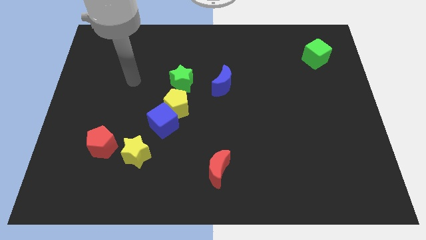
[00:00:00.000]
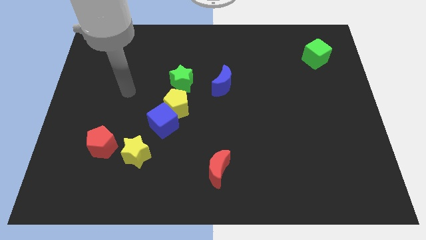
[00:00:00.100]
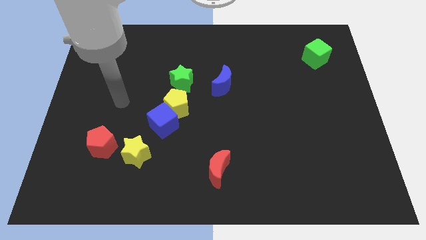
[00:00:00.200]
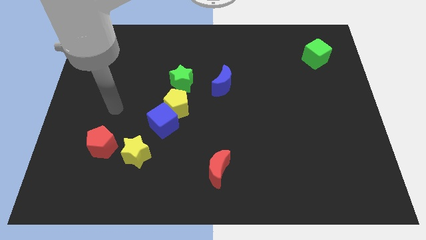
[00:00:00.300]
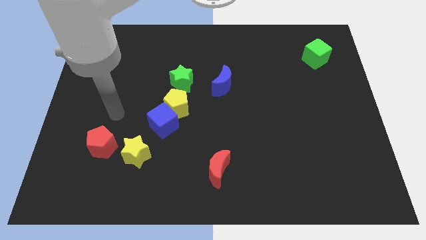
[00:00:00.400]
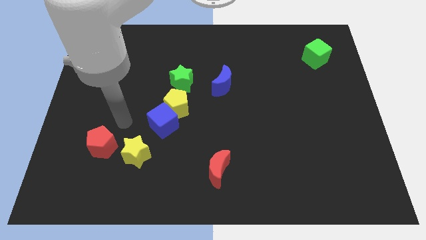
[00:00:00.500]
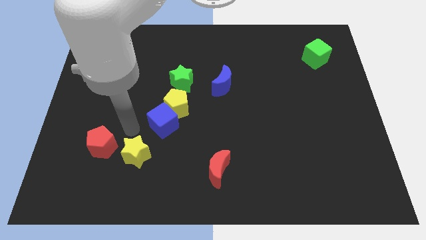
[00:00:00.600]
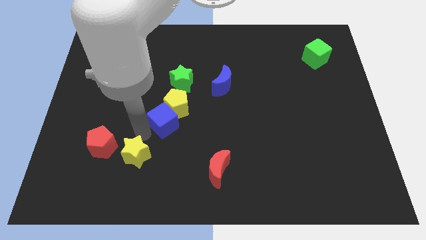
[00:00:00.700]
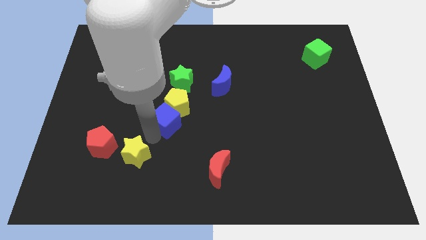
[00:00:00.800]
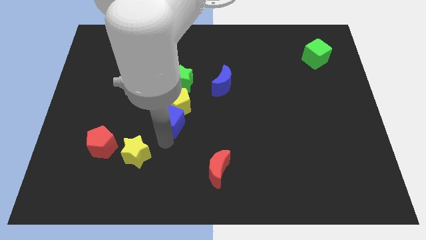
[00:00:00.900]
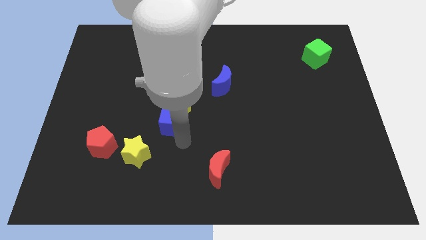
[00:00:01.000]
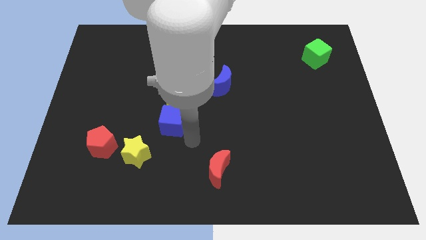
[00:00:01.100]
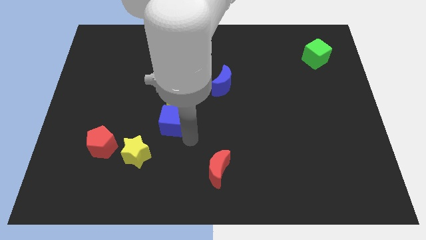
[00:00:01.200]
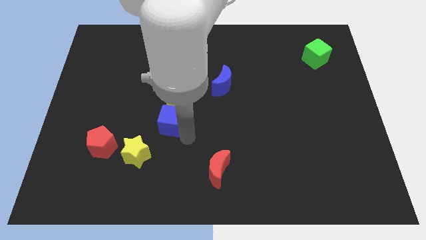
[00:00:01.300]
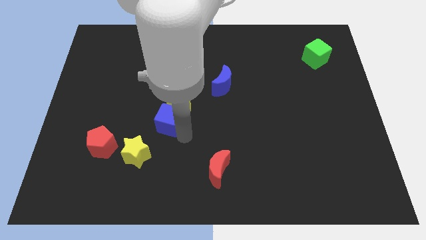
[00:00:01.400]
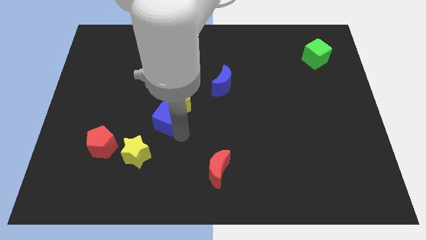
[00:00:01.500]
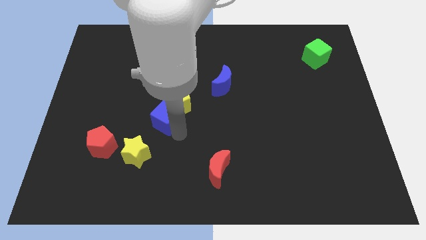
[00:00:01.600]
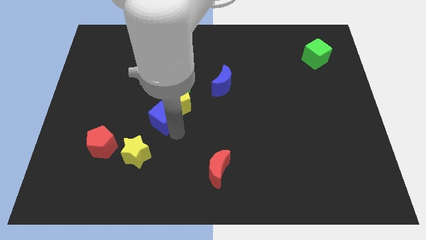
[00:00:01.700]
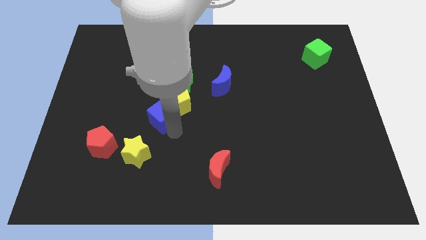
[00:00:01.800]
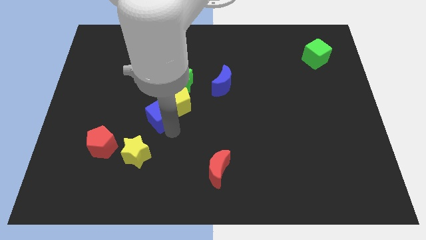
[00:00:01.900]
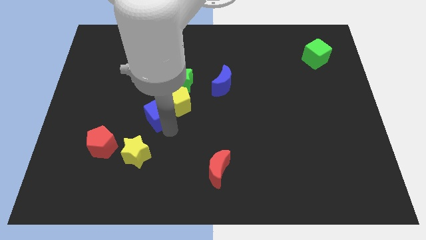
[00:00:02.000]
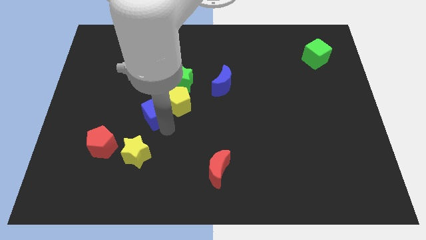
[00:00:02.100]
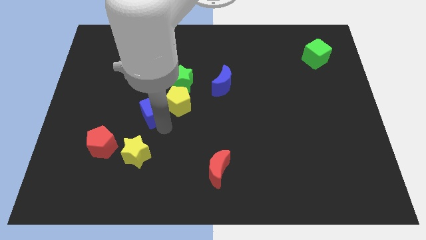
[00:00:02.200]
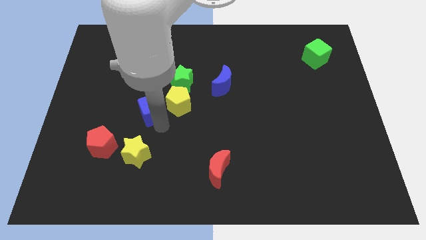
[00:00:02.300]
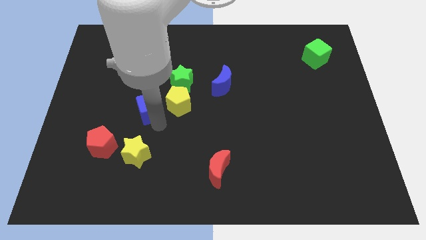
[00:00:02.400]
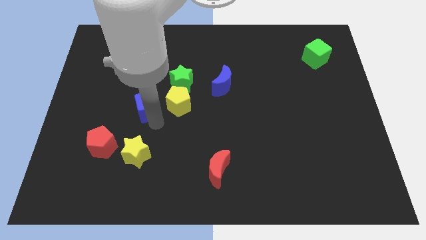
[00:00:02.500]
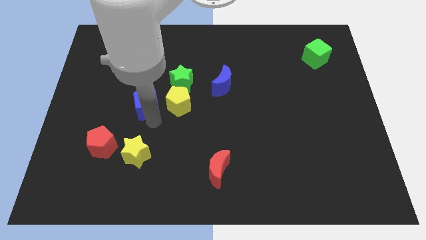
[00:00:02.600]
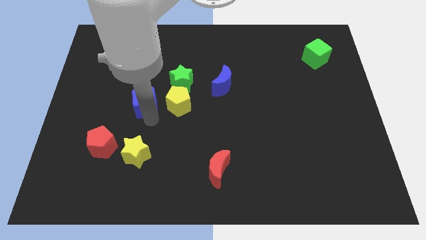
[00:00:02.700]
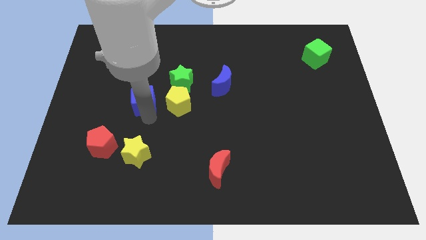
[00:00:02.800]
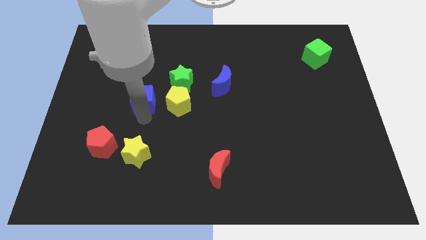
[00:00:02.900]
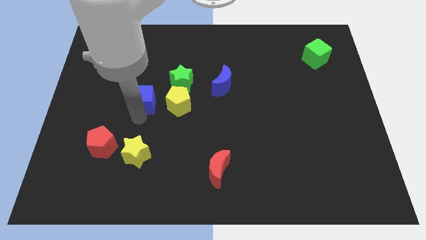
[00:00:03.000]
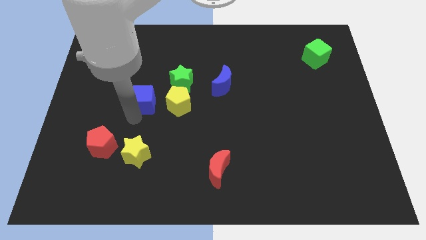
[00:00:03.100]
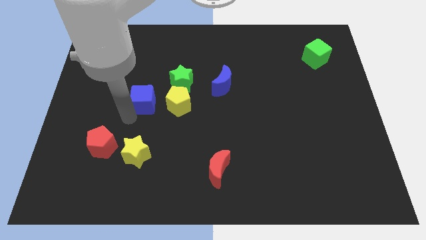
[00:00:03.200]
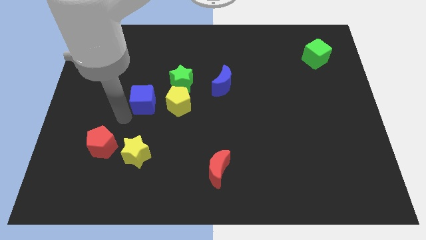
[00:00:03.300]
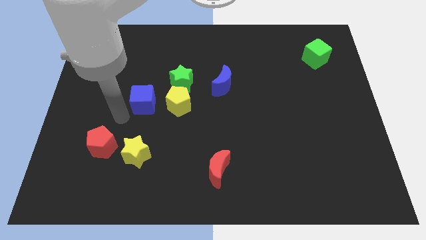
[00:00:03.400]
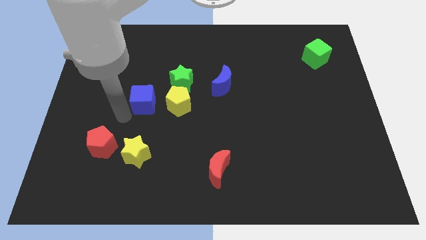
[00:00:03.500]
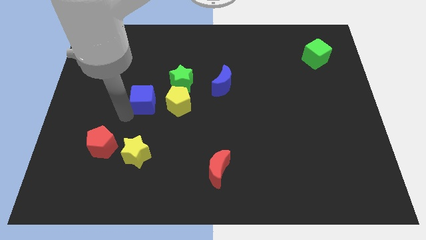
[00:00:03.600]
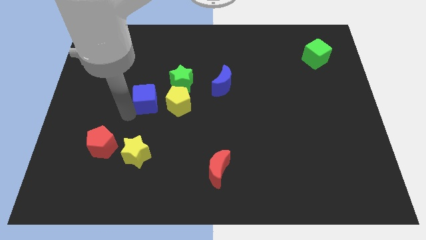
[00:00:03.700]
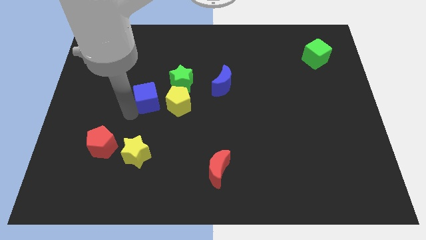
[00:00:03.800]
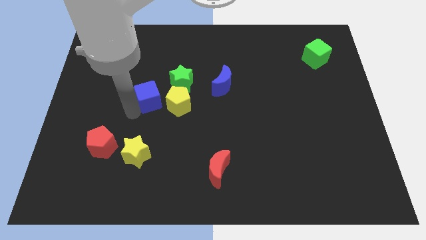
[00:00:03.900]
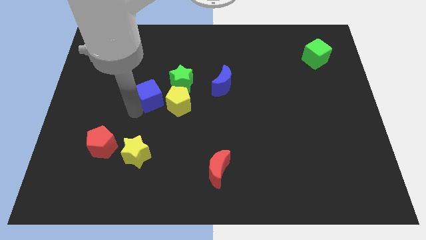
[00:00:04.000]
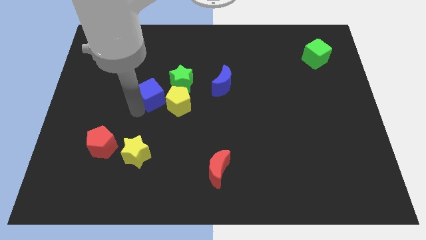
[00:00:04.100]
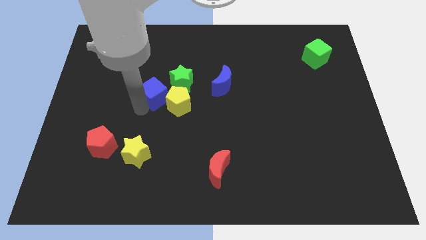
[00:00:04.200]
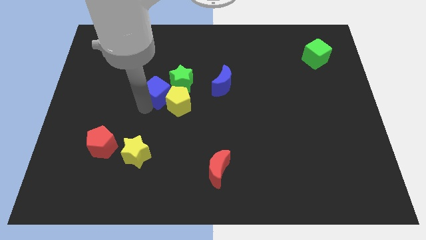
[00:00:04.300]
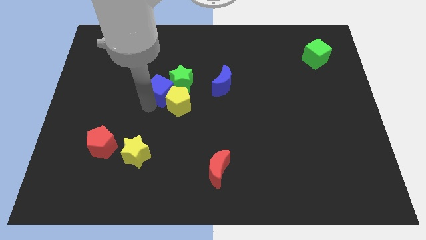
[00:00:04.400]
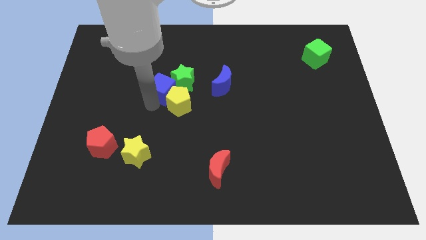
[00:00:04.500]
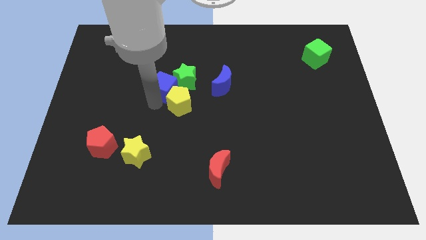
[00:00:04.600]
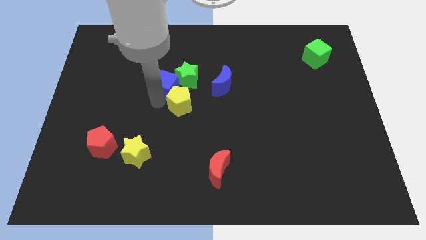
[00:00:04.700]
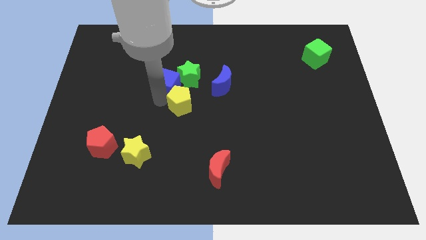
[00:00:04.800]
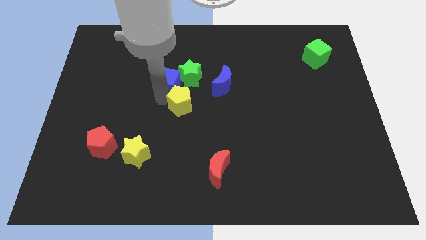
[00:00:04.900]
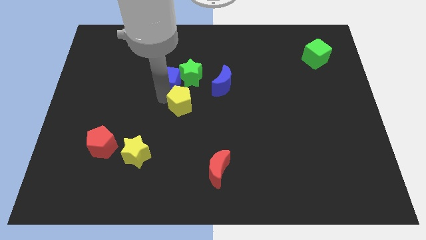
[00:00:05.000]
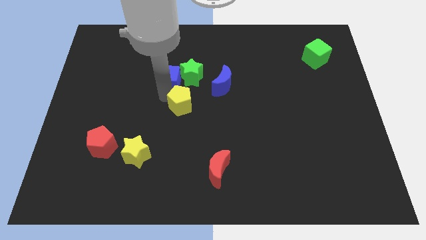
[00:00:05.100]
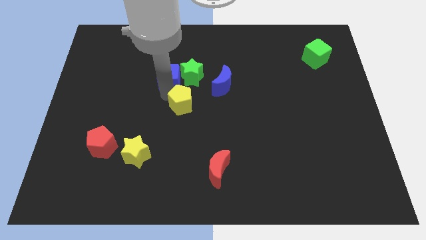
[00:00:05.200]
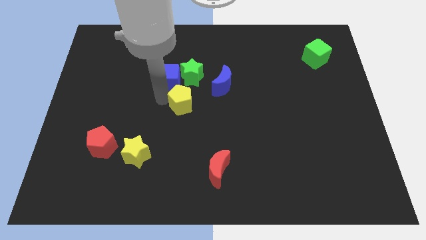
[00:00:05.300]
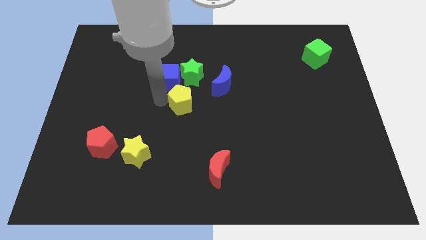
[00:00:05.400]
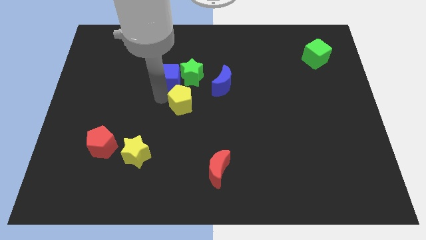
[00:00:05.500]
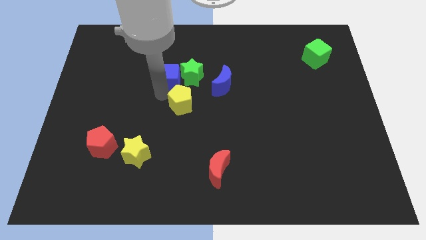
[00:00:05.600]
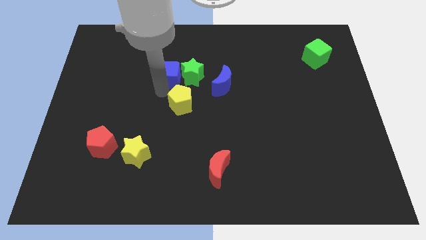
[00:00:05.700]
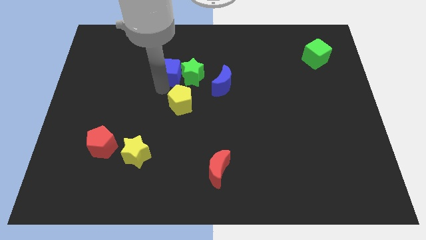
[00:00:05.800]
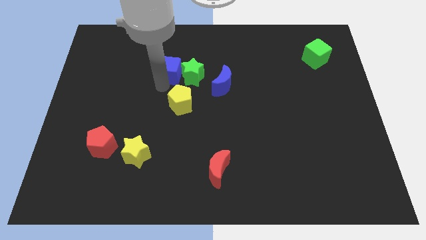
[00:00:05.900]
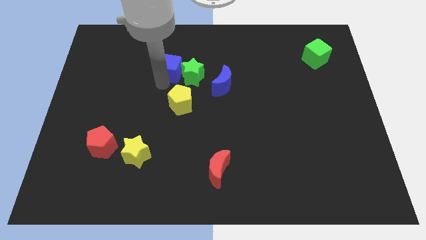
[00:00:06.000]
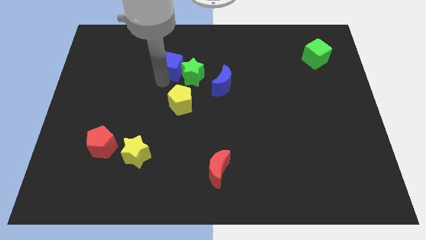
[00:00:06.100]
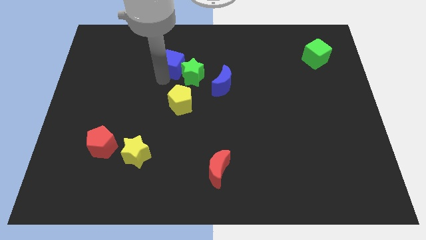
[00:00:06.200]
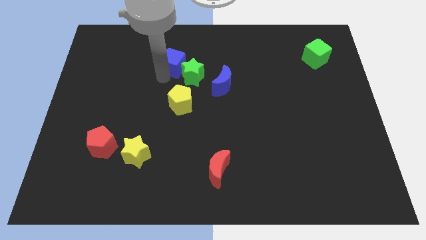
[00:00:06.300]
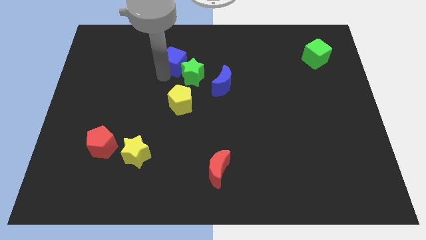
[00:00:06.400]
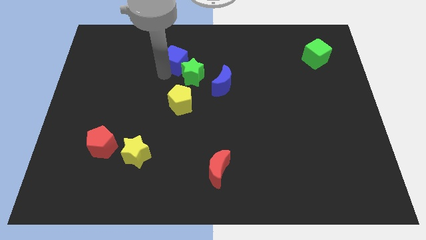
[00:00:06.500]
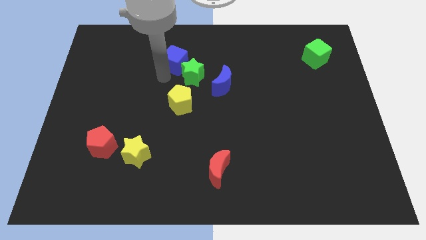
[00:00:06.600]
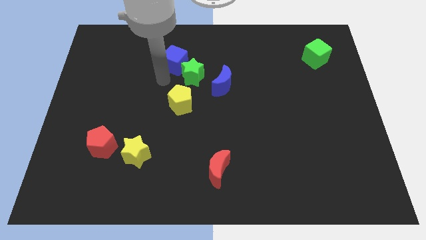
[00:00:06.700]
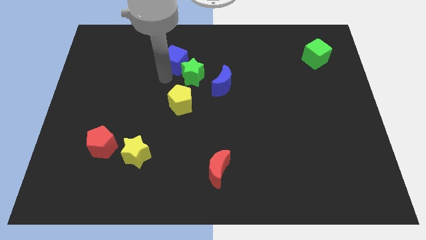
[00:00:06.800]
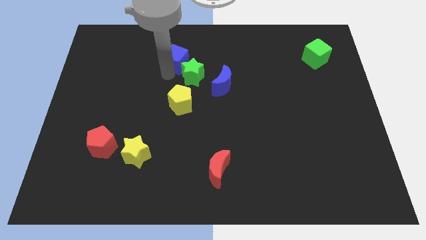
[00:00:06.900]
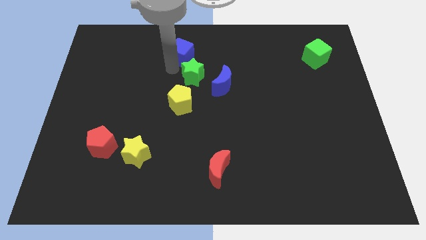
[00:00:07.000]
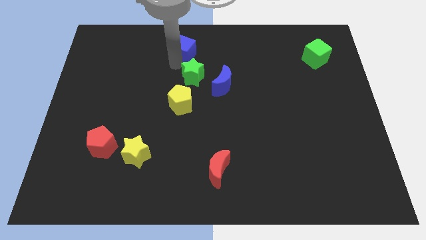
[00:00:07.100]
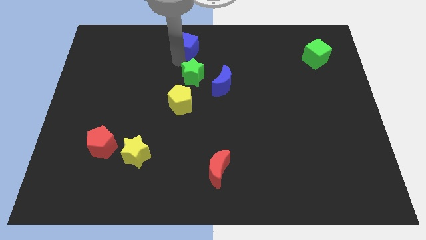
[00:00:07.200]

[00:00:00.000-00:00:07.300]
slide the blue cube to the top side
